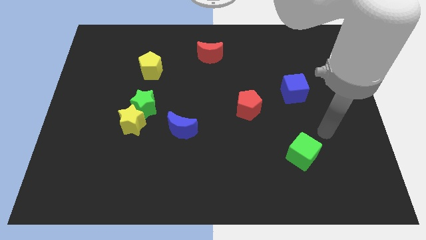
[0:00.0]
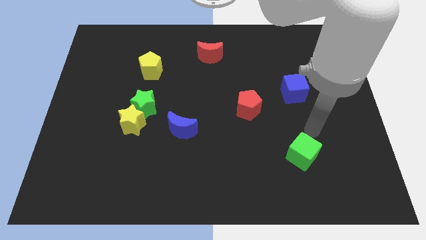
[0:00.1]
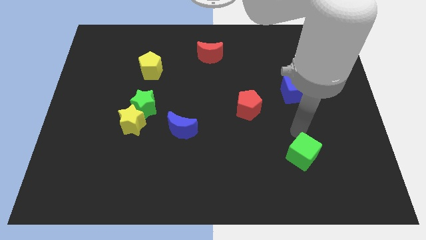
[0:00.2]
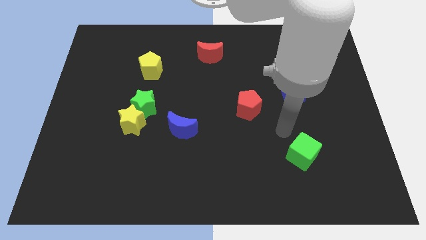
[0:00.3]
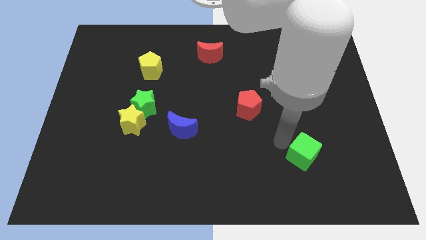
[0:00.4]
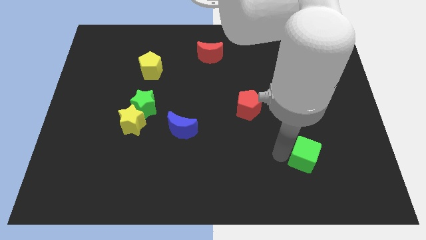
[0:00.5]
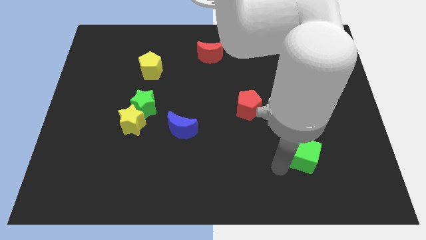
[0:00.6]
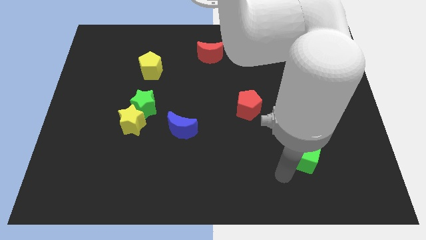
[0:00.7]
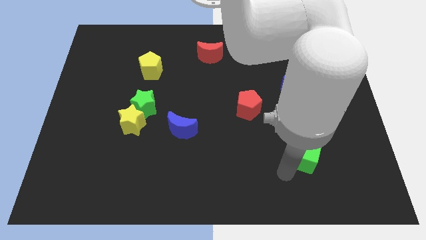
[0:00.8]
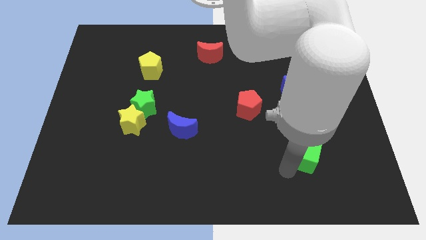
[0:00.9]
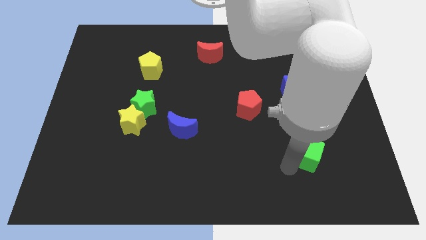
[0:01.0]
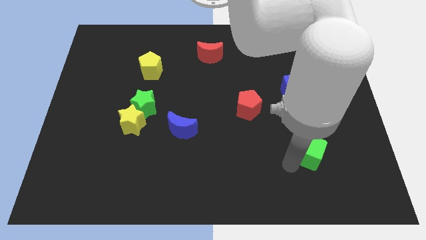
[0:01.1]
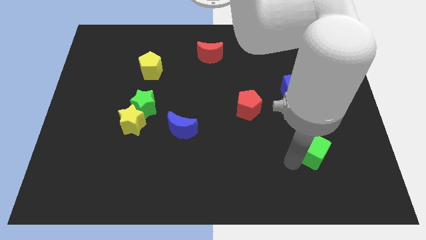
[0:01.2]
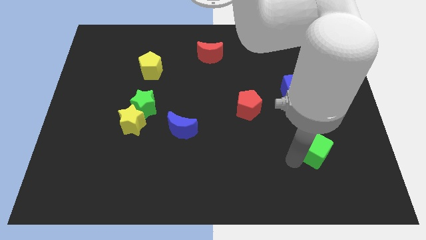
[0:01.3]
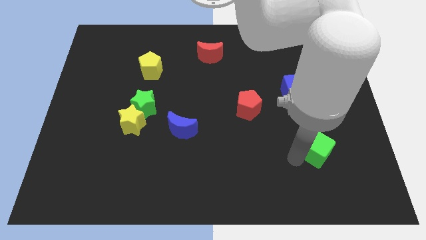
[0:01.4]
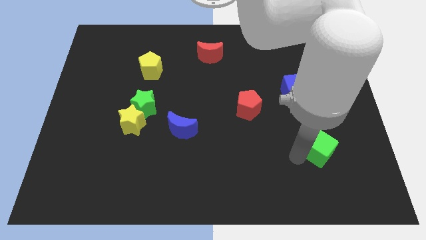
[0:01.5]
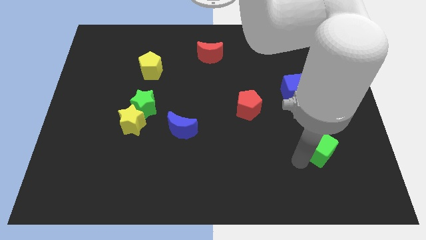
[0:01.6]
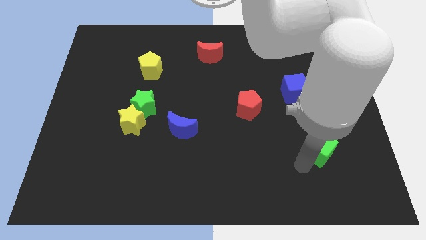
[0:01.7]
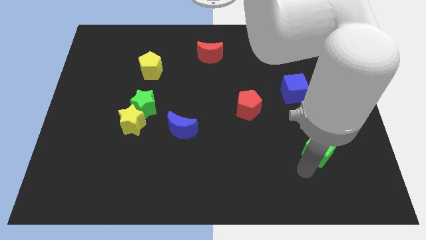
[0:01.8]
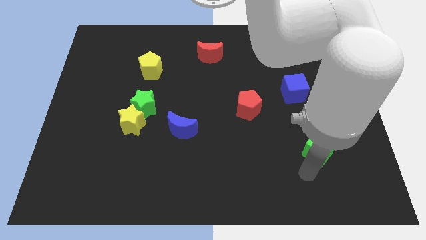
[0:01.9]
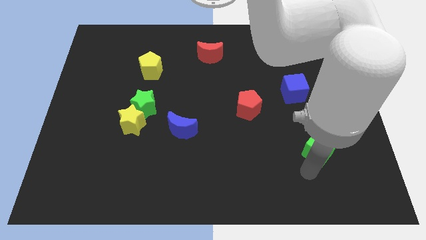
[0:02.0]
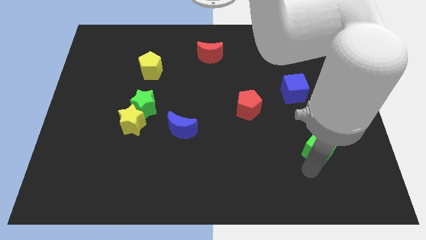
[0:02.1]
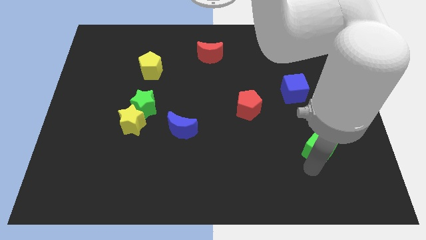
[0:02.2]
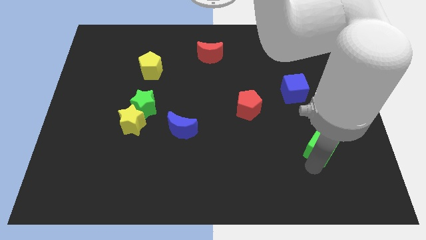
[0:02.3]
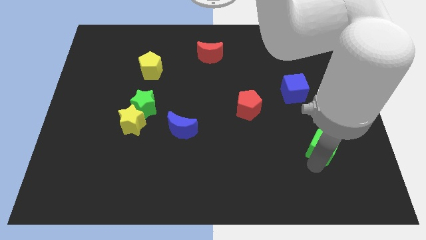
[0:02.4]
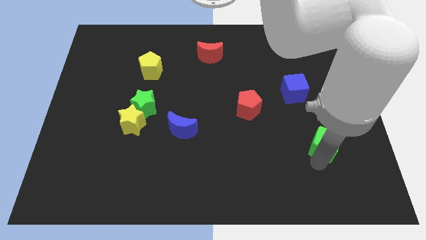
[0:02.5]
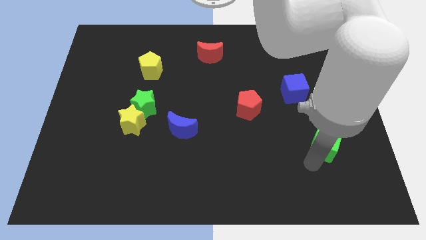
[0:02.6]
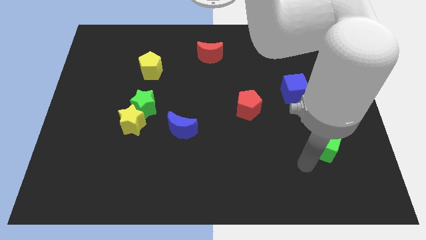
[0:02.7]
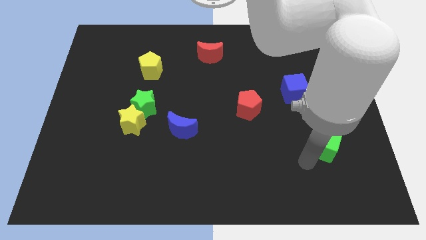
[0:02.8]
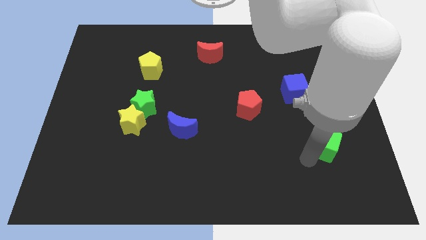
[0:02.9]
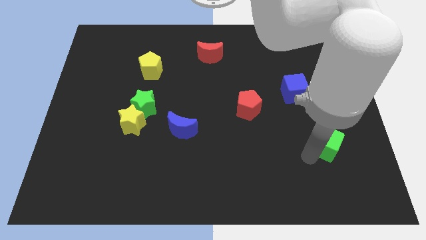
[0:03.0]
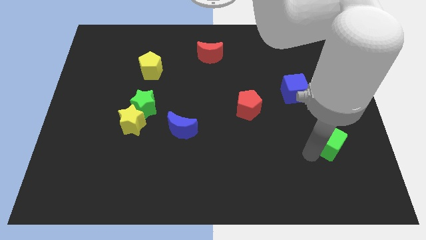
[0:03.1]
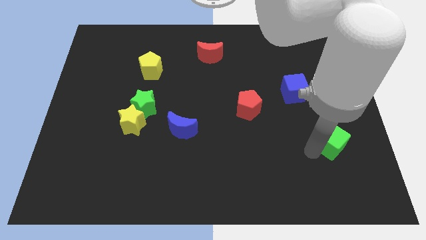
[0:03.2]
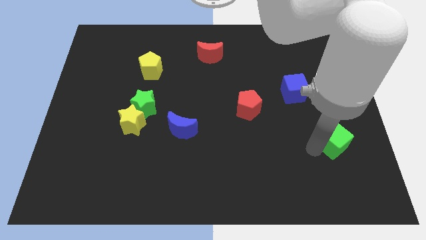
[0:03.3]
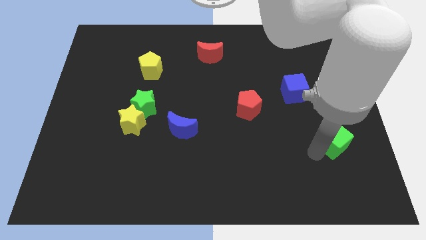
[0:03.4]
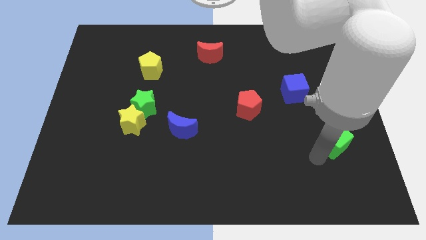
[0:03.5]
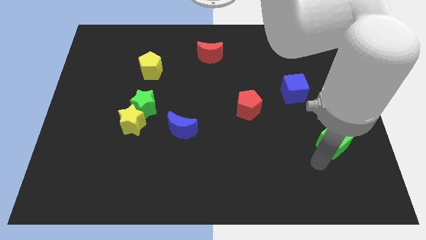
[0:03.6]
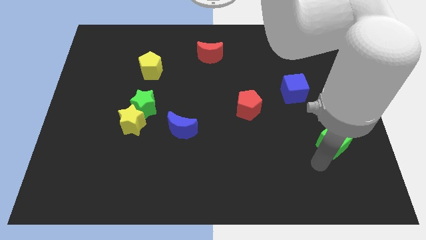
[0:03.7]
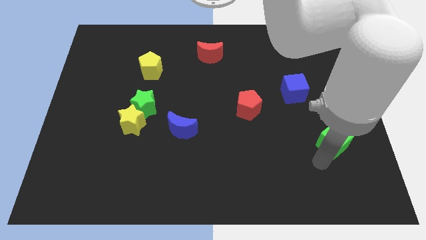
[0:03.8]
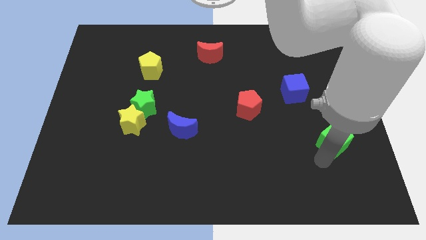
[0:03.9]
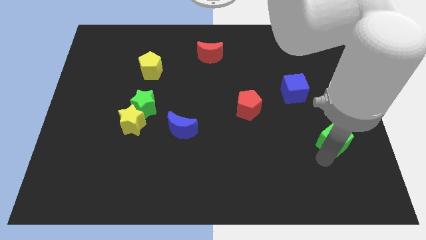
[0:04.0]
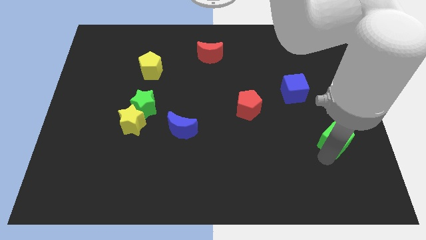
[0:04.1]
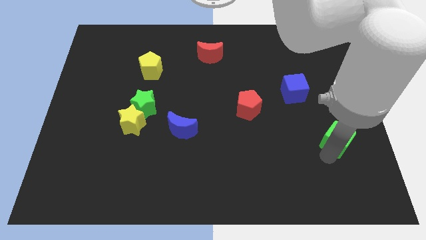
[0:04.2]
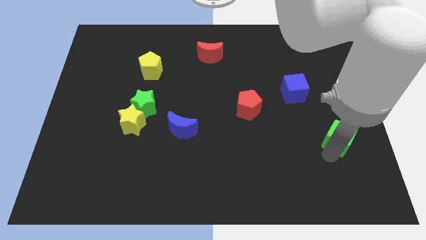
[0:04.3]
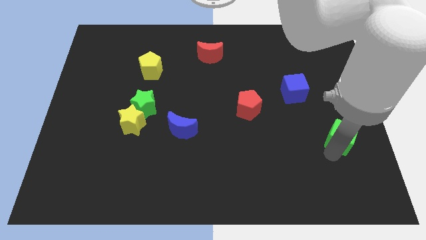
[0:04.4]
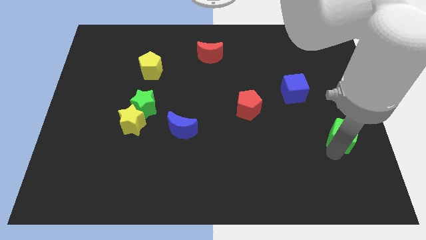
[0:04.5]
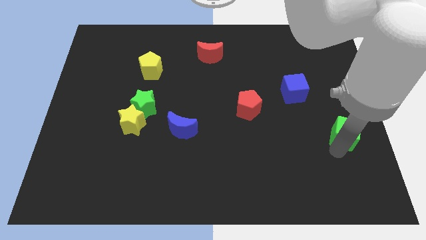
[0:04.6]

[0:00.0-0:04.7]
move the green cube to the center right

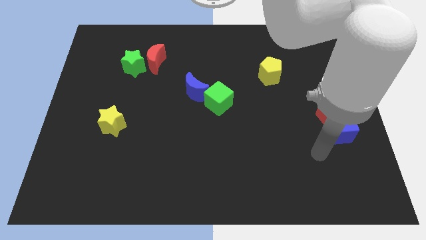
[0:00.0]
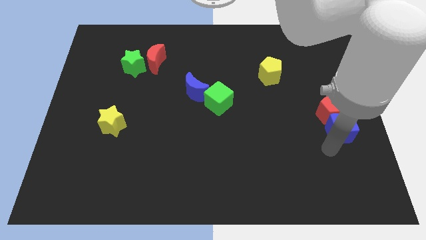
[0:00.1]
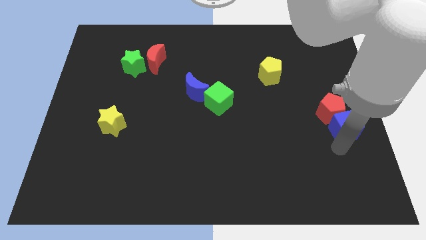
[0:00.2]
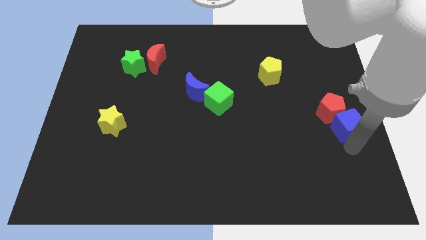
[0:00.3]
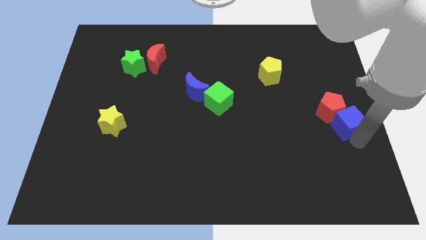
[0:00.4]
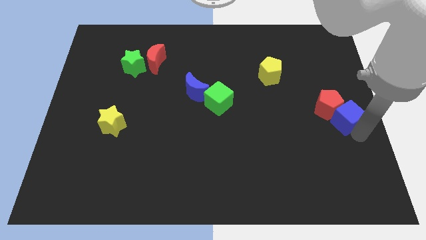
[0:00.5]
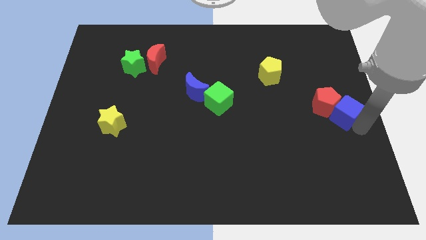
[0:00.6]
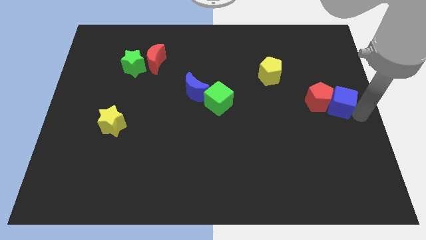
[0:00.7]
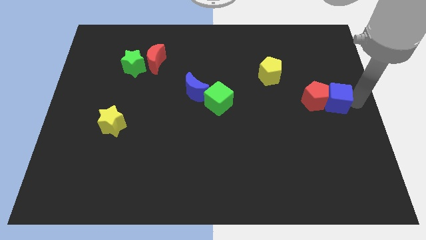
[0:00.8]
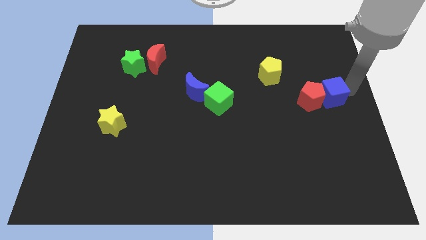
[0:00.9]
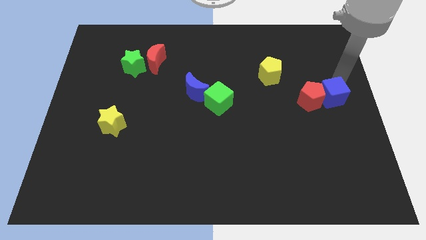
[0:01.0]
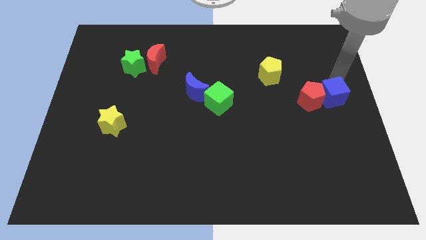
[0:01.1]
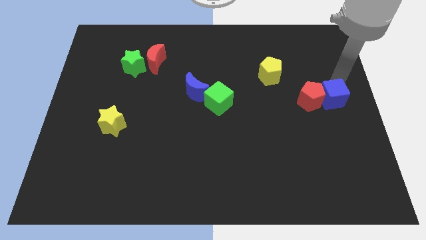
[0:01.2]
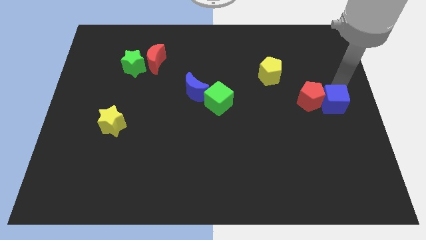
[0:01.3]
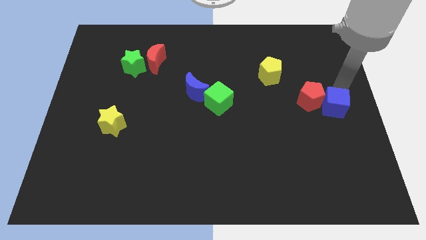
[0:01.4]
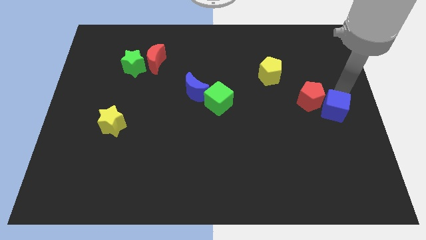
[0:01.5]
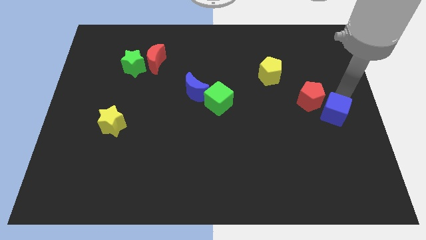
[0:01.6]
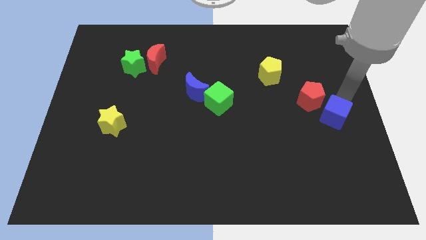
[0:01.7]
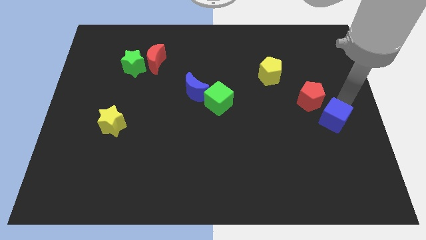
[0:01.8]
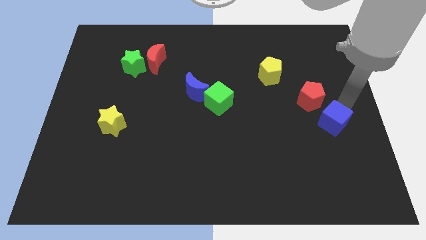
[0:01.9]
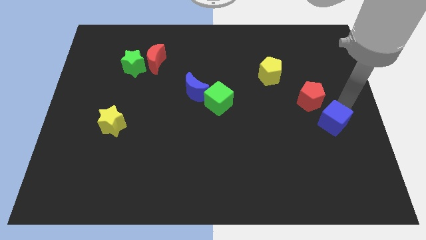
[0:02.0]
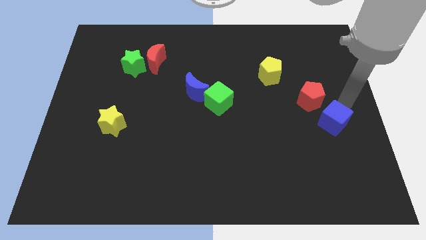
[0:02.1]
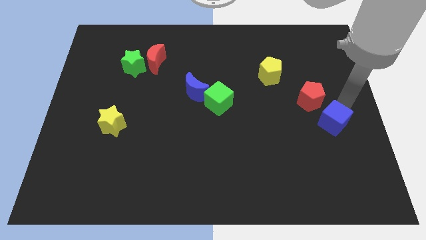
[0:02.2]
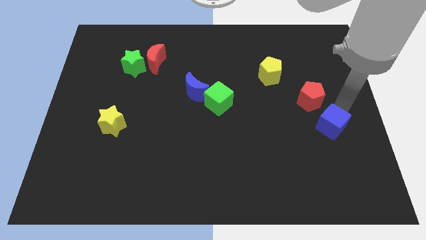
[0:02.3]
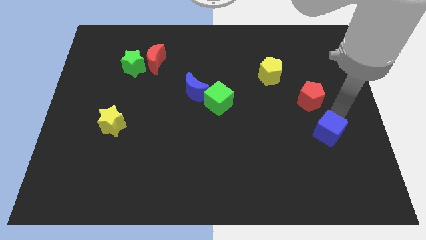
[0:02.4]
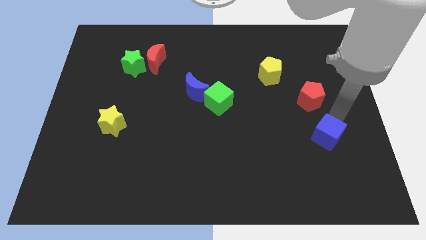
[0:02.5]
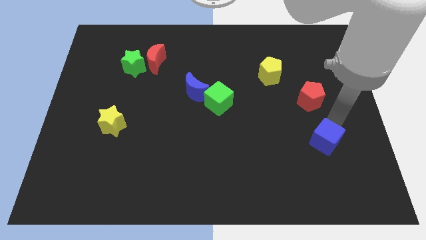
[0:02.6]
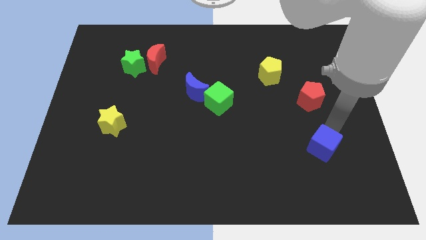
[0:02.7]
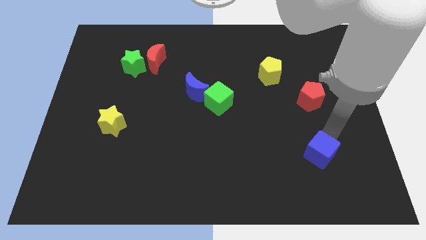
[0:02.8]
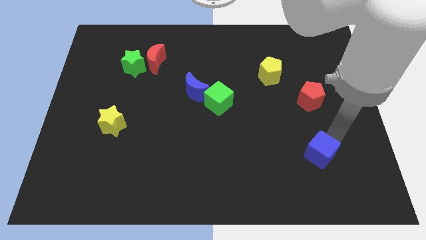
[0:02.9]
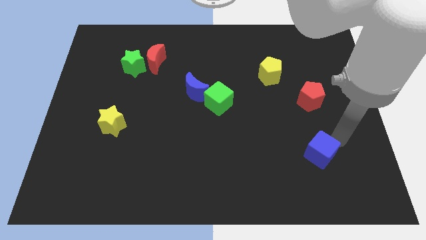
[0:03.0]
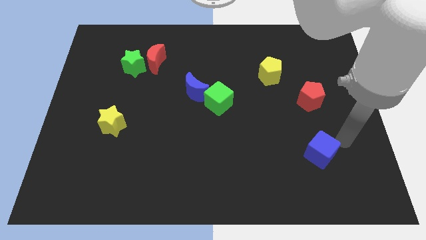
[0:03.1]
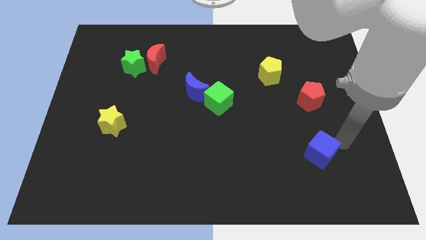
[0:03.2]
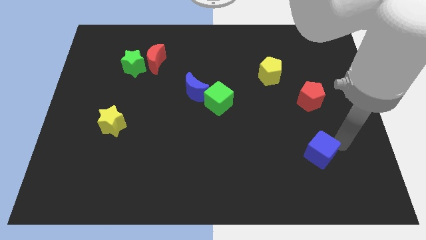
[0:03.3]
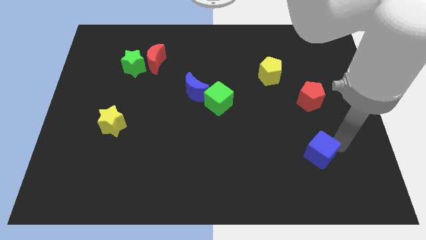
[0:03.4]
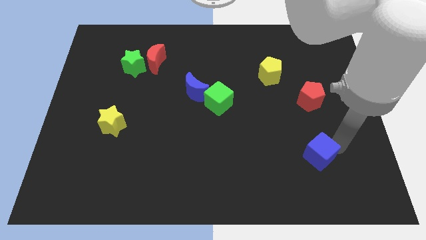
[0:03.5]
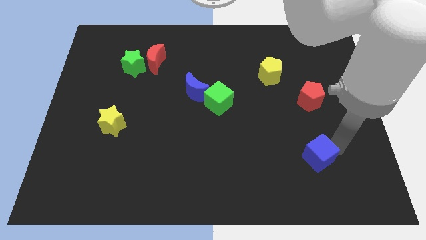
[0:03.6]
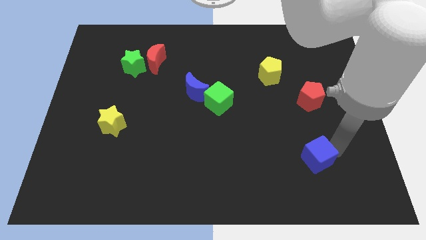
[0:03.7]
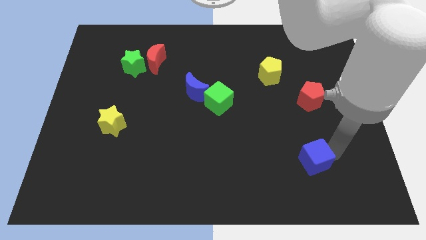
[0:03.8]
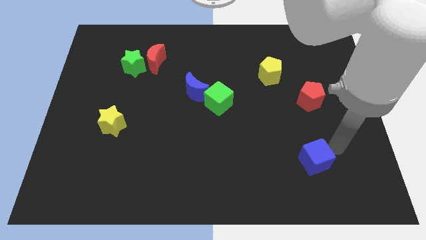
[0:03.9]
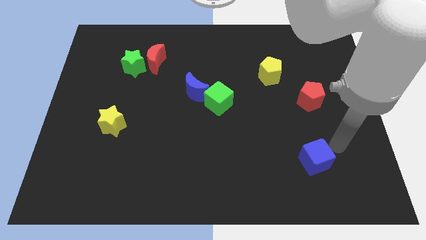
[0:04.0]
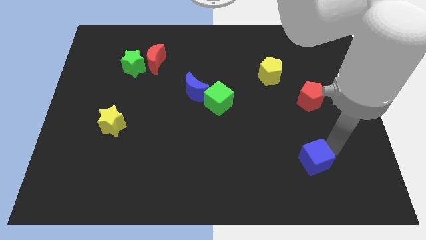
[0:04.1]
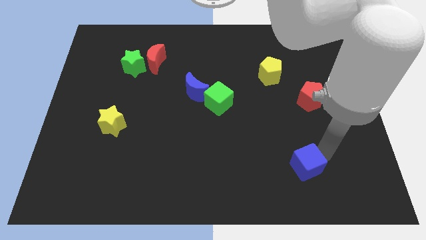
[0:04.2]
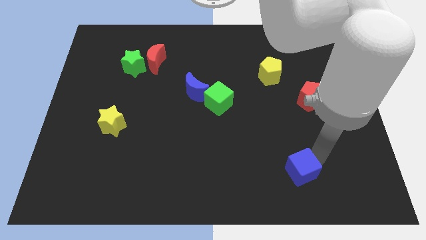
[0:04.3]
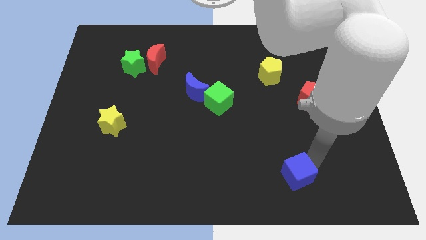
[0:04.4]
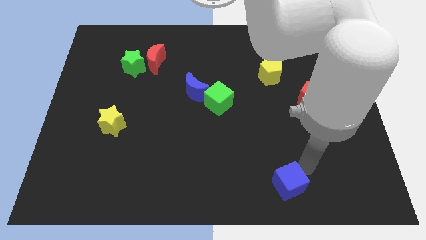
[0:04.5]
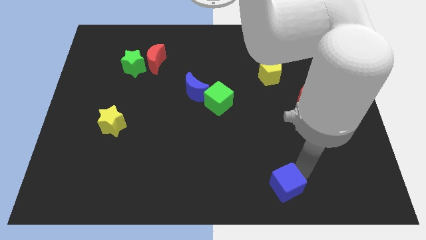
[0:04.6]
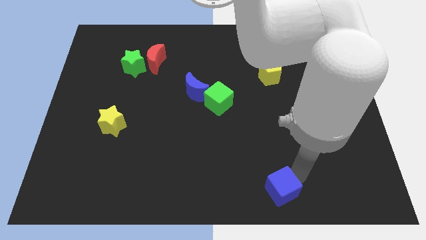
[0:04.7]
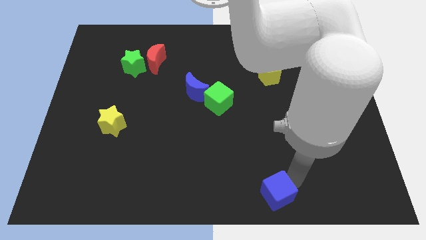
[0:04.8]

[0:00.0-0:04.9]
put the blue cube to the bottom side
